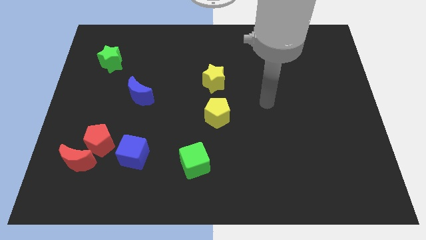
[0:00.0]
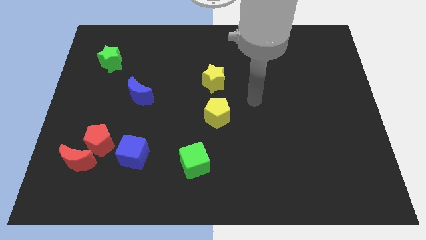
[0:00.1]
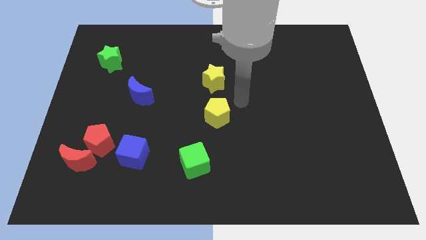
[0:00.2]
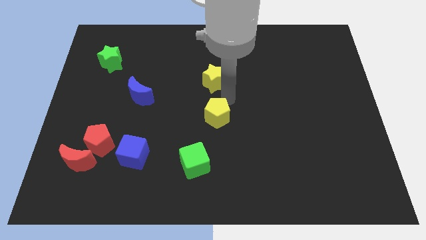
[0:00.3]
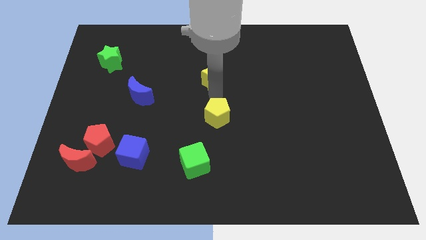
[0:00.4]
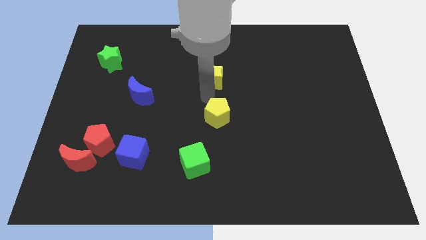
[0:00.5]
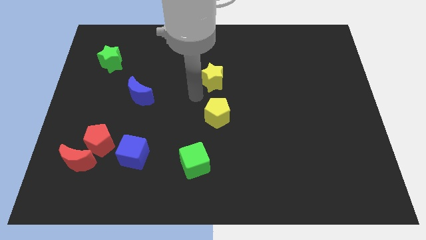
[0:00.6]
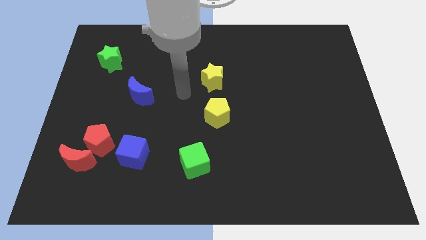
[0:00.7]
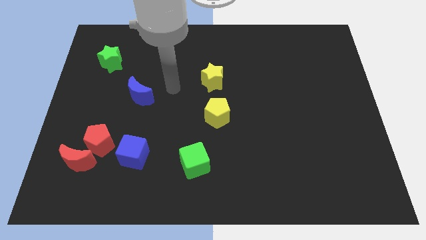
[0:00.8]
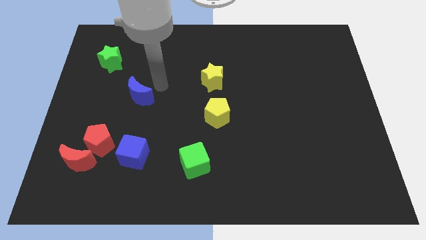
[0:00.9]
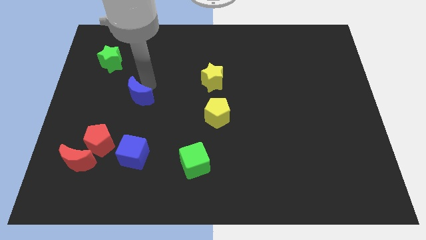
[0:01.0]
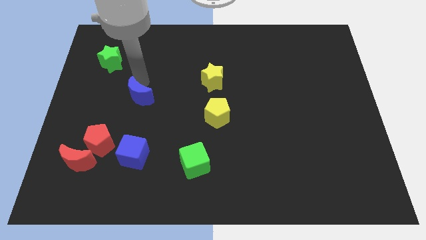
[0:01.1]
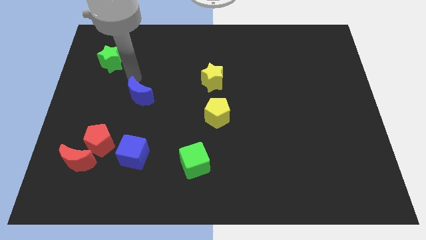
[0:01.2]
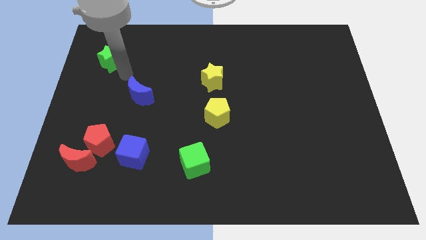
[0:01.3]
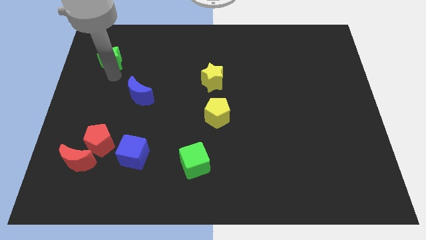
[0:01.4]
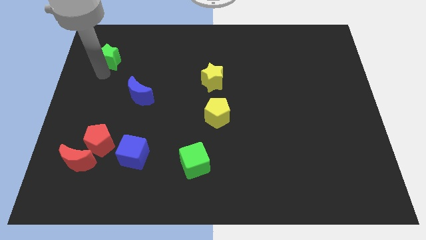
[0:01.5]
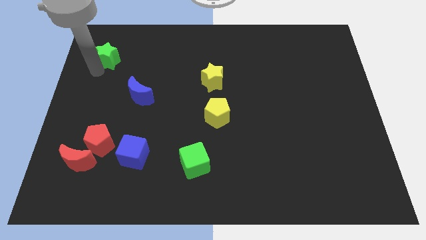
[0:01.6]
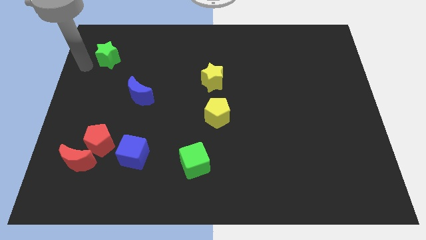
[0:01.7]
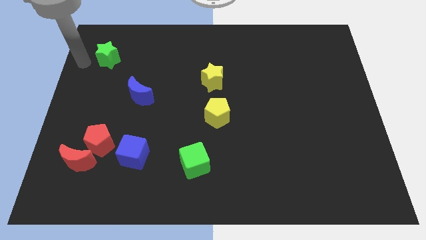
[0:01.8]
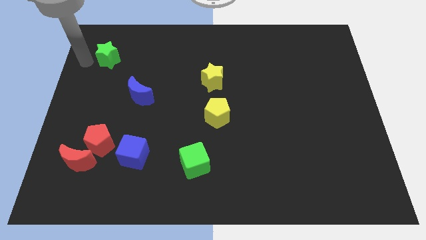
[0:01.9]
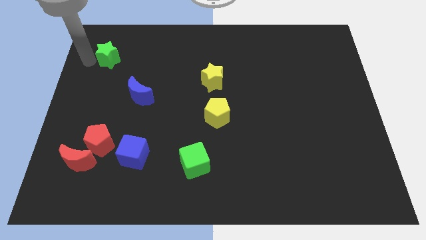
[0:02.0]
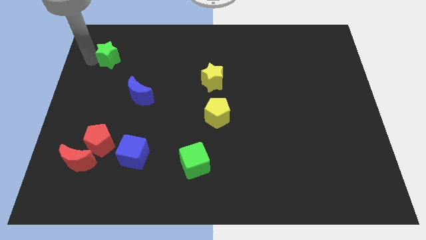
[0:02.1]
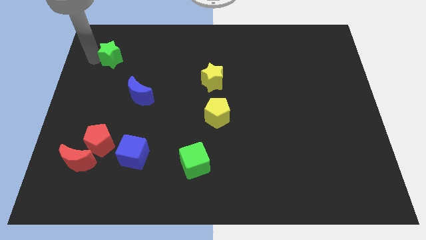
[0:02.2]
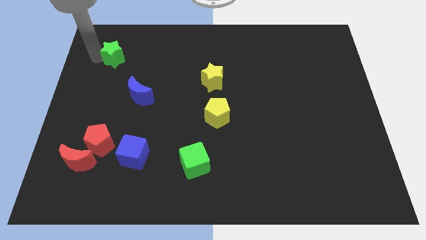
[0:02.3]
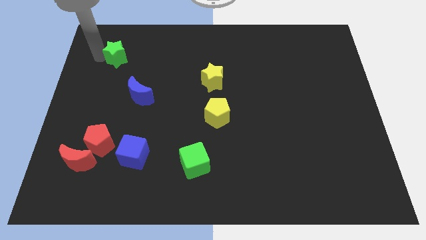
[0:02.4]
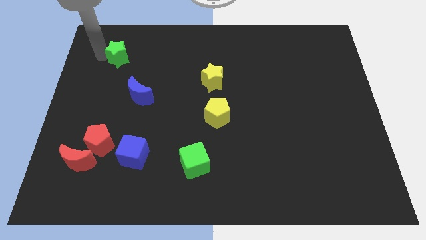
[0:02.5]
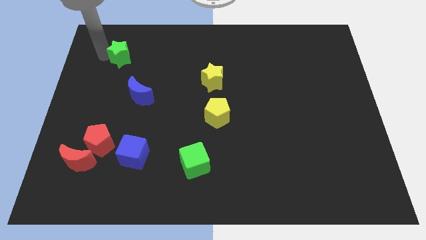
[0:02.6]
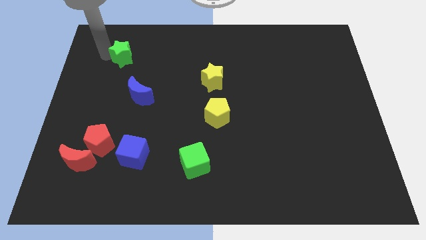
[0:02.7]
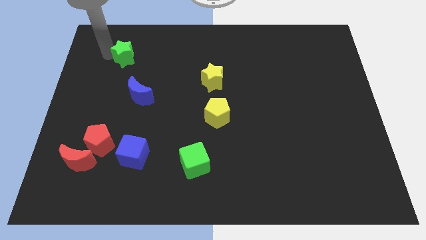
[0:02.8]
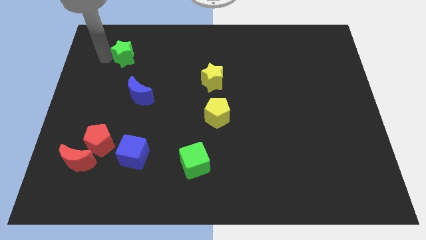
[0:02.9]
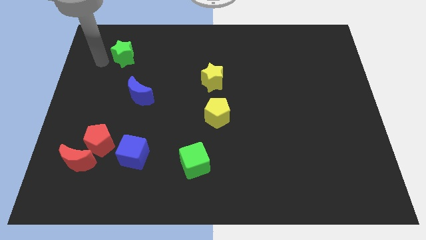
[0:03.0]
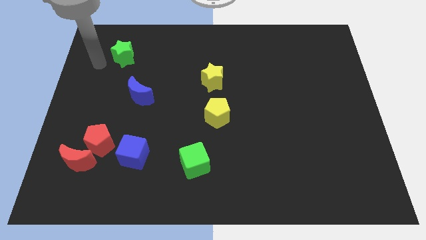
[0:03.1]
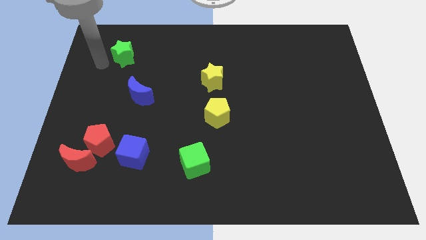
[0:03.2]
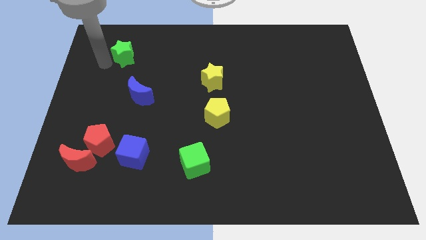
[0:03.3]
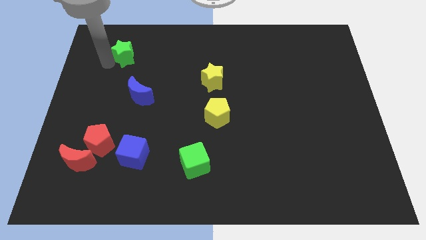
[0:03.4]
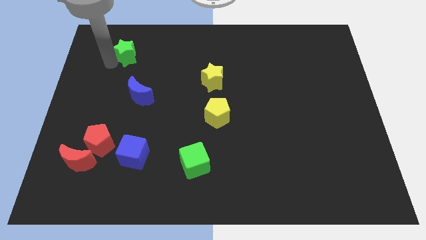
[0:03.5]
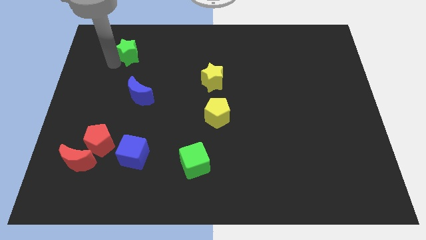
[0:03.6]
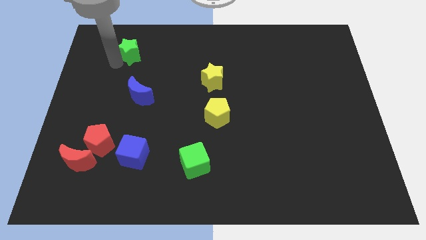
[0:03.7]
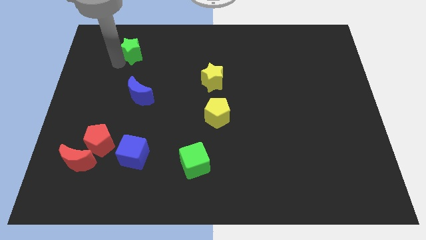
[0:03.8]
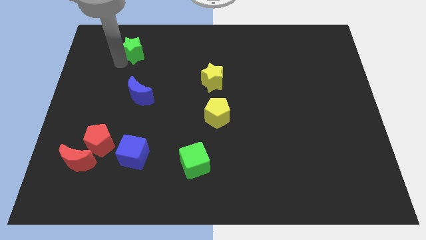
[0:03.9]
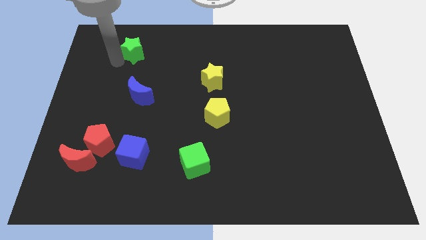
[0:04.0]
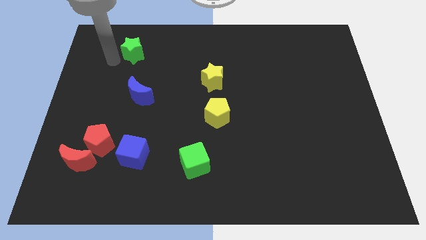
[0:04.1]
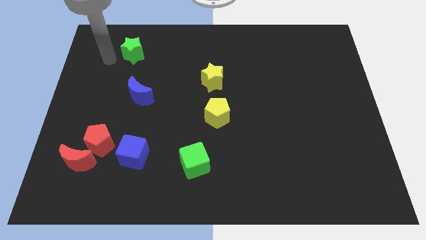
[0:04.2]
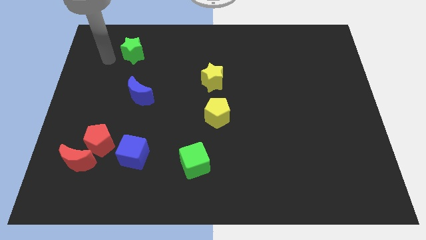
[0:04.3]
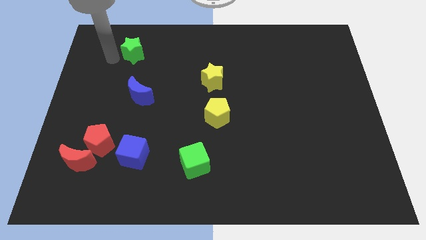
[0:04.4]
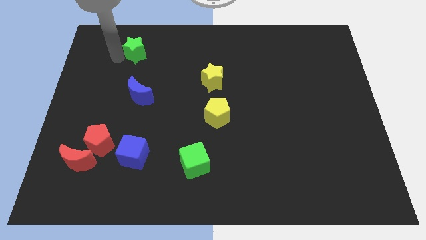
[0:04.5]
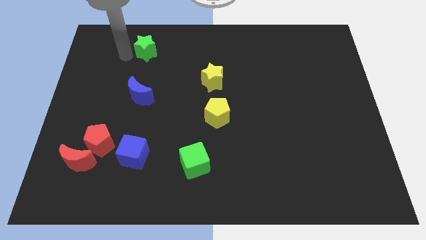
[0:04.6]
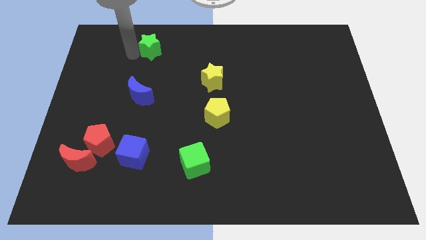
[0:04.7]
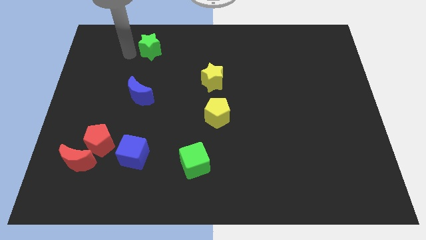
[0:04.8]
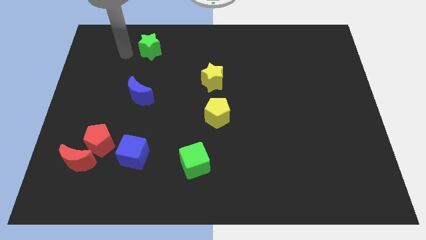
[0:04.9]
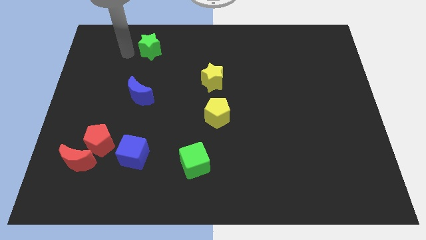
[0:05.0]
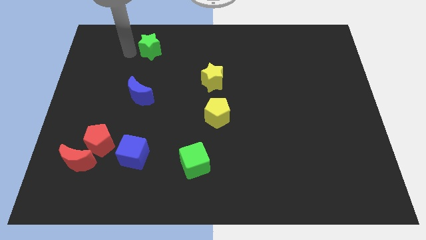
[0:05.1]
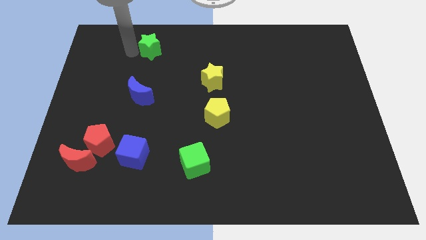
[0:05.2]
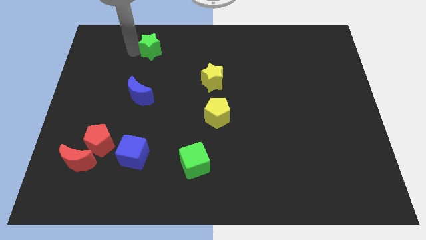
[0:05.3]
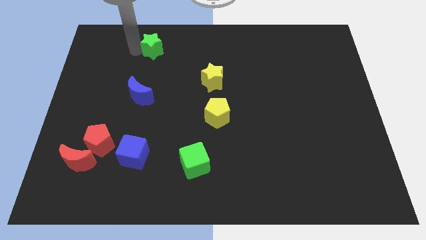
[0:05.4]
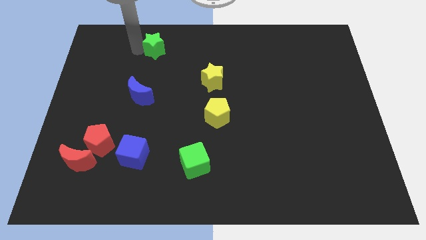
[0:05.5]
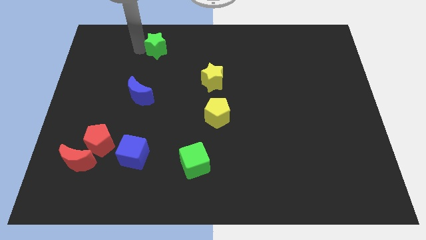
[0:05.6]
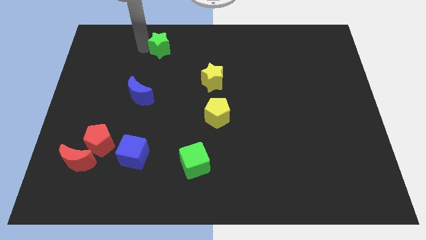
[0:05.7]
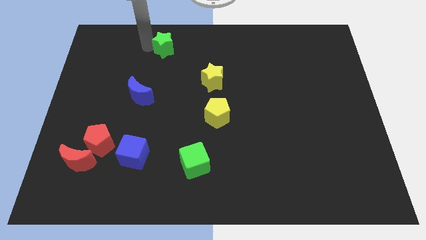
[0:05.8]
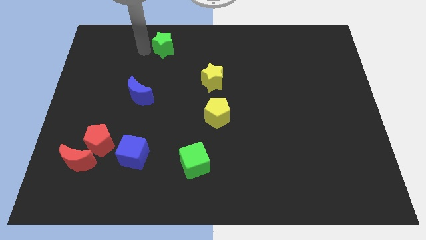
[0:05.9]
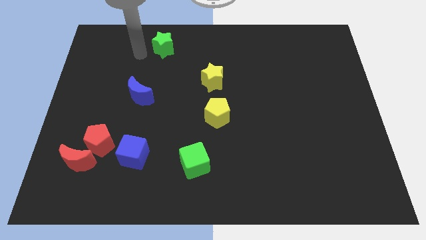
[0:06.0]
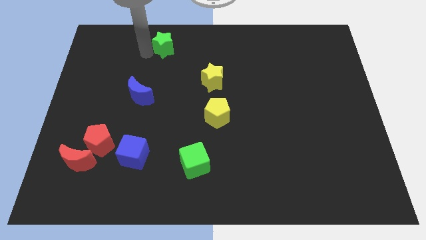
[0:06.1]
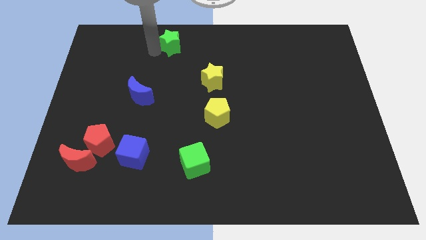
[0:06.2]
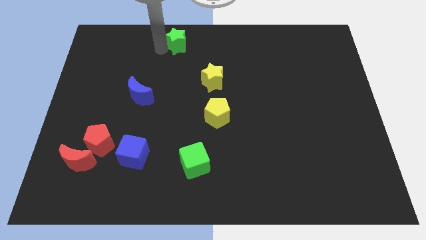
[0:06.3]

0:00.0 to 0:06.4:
move the green star to the top side
